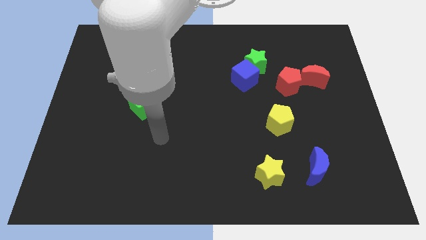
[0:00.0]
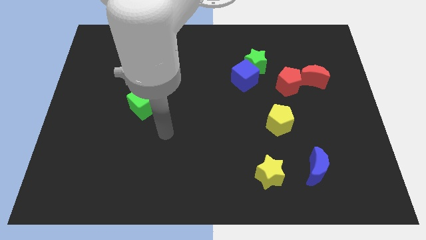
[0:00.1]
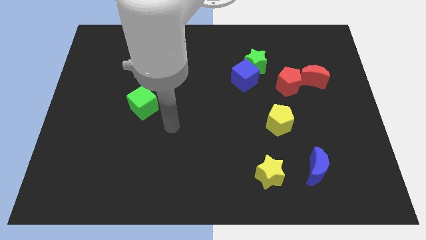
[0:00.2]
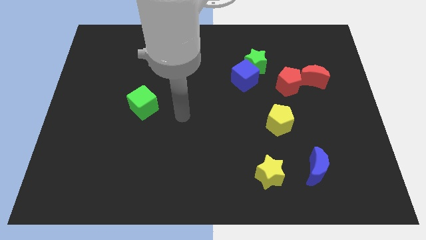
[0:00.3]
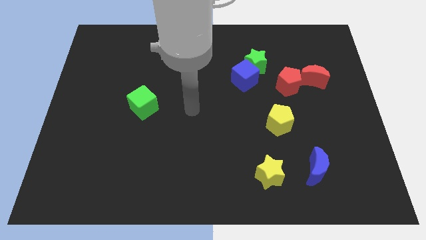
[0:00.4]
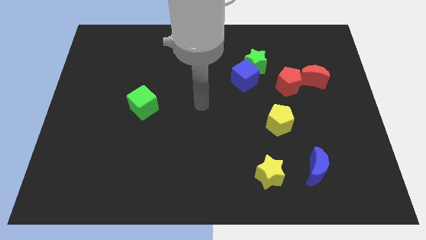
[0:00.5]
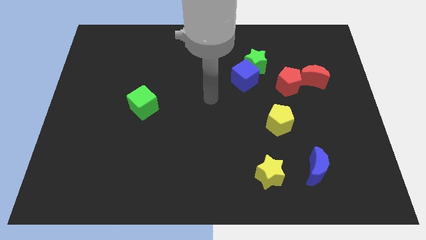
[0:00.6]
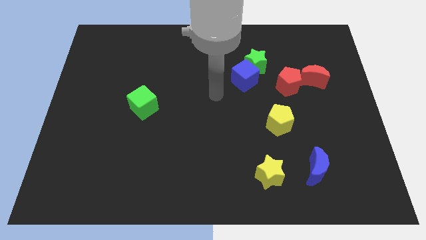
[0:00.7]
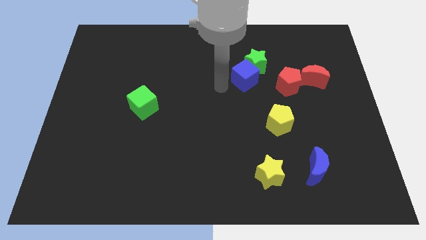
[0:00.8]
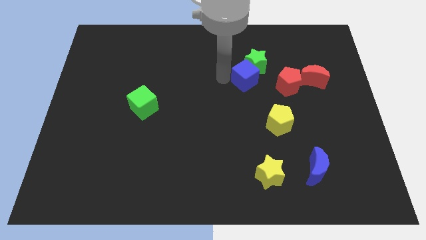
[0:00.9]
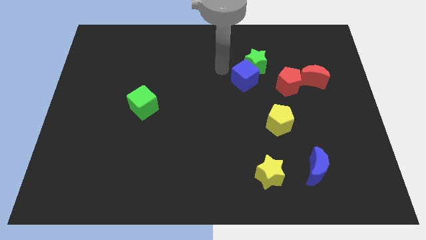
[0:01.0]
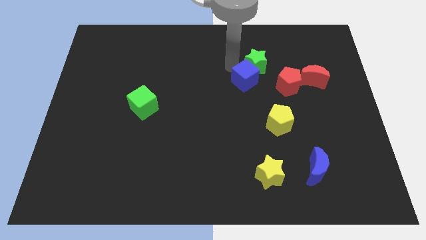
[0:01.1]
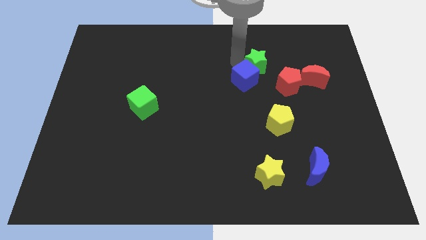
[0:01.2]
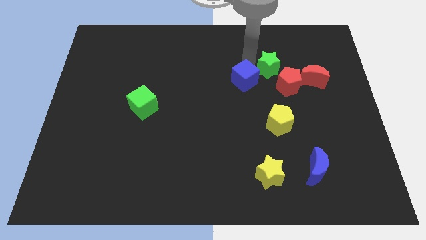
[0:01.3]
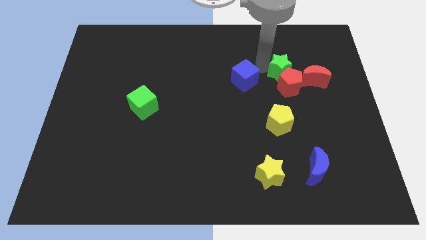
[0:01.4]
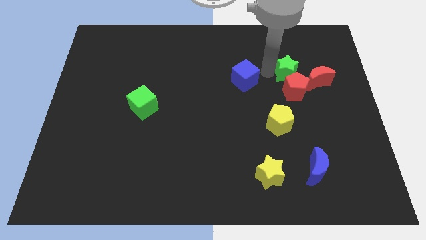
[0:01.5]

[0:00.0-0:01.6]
separate the blue cube from the green star

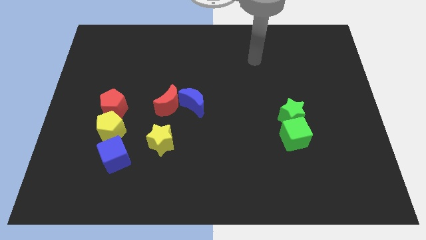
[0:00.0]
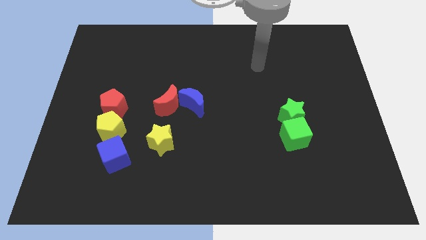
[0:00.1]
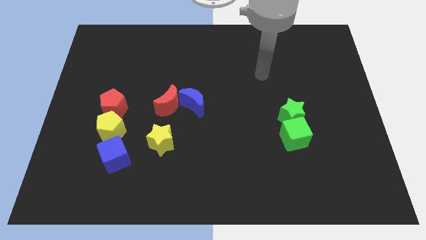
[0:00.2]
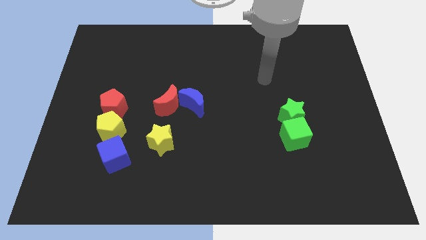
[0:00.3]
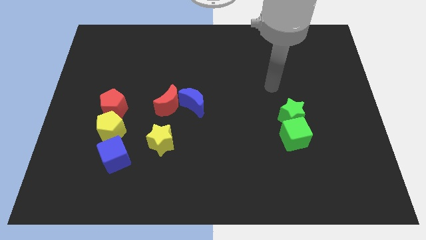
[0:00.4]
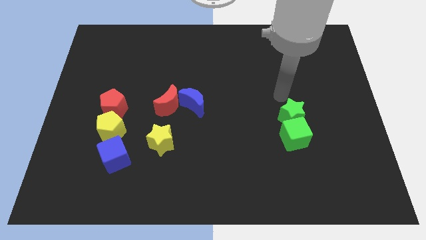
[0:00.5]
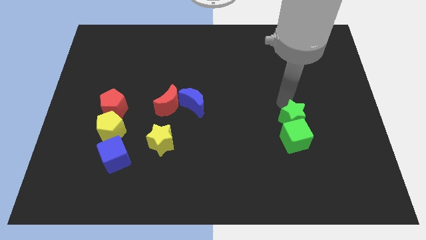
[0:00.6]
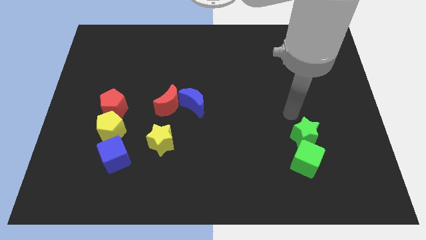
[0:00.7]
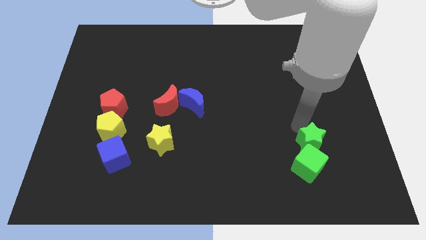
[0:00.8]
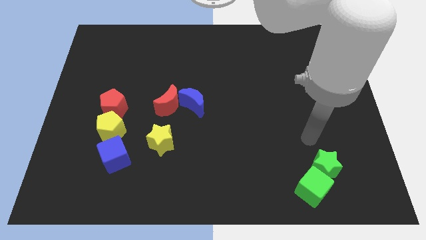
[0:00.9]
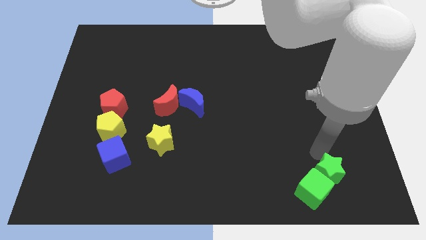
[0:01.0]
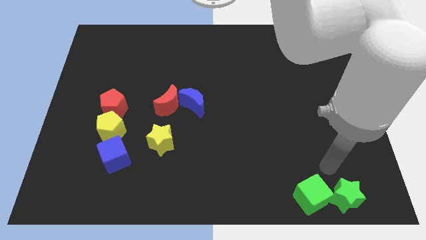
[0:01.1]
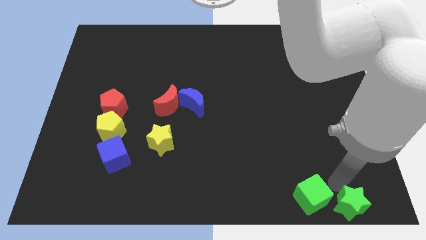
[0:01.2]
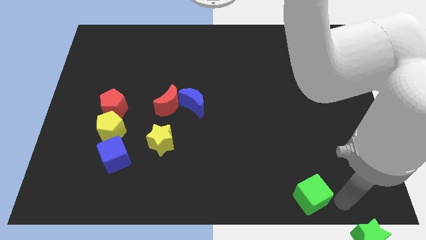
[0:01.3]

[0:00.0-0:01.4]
separate the green cube from the green star

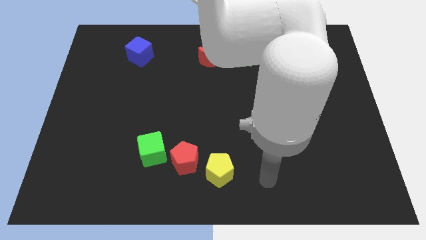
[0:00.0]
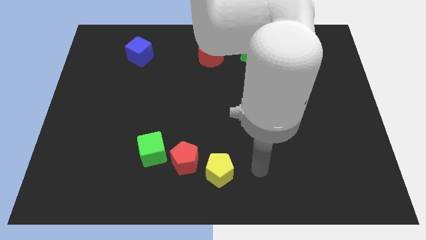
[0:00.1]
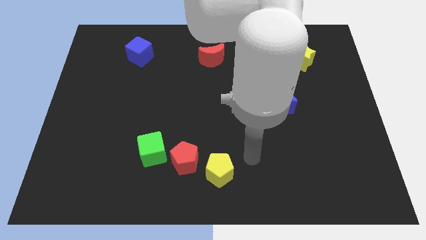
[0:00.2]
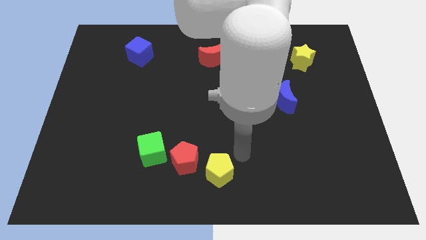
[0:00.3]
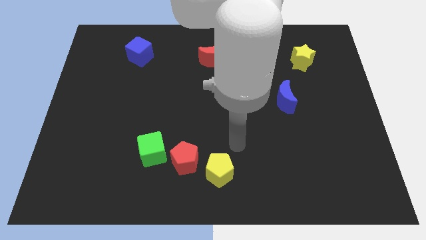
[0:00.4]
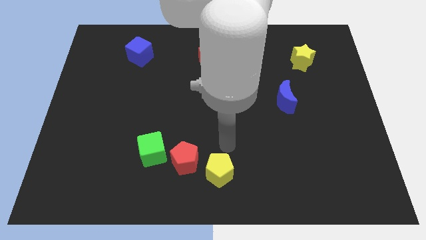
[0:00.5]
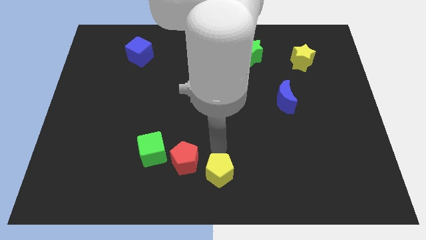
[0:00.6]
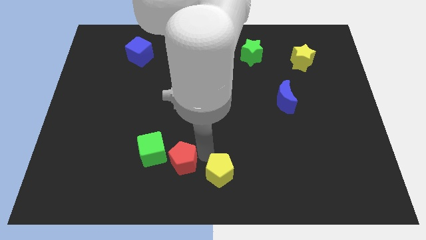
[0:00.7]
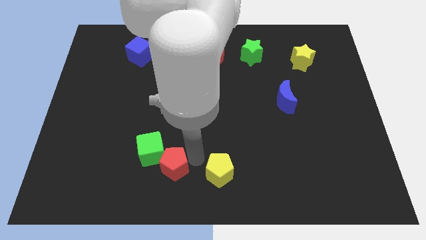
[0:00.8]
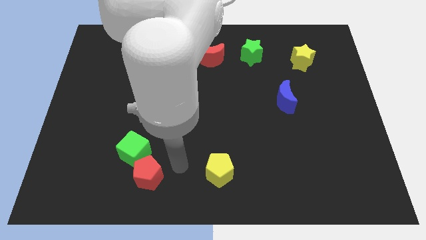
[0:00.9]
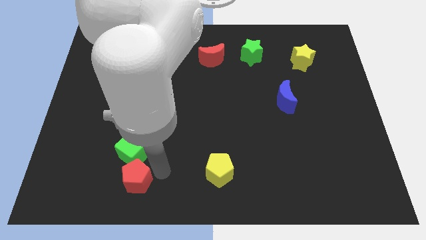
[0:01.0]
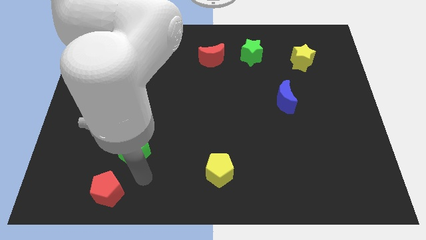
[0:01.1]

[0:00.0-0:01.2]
move the green cube away from the red pentagon

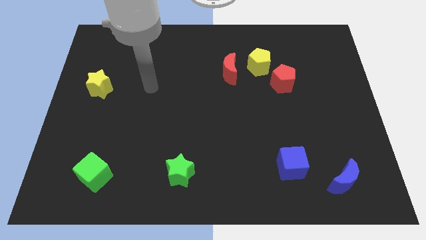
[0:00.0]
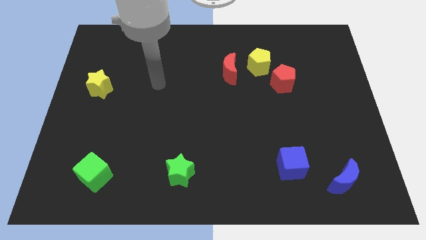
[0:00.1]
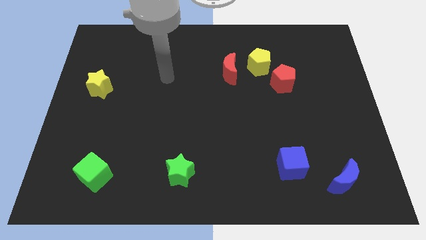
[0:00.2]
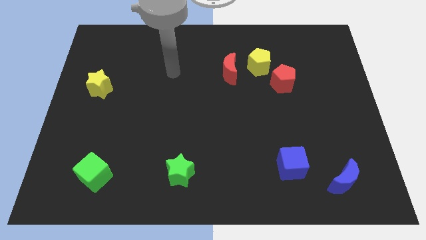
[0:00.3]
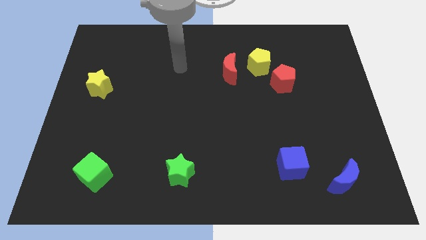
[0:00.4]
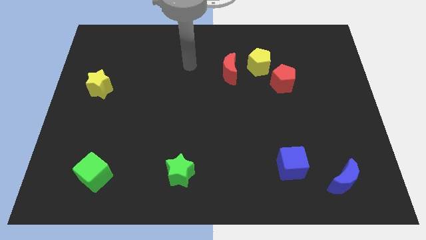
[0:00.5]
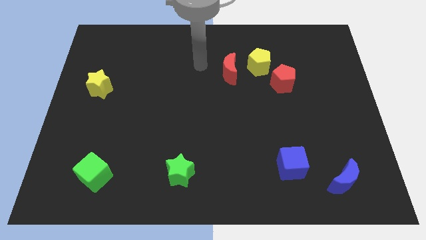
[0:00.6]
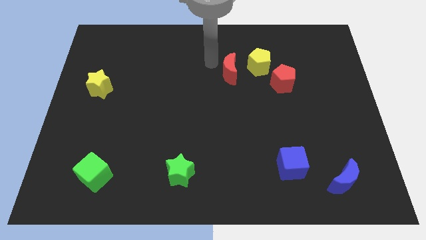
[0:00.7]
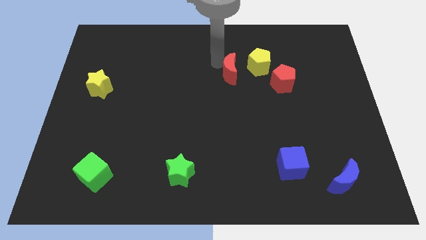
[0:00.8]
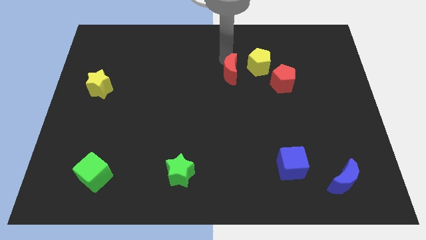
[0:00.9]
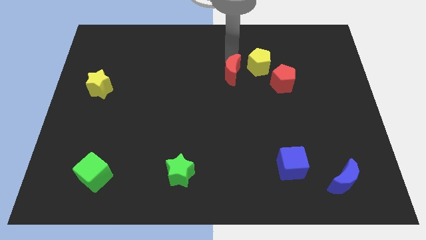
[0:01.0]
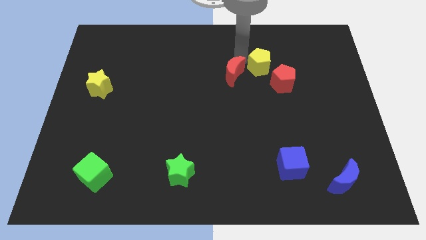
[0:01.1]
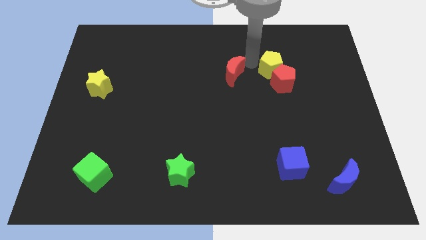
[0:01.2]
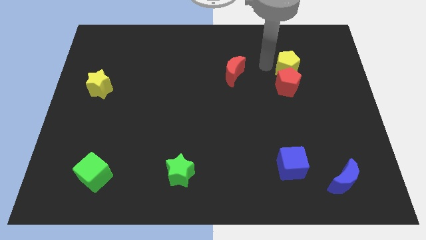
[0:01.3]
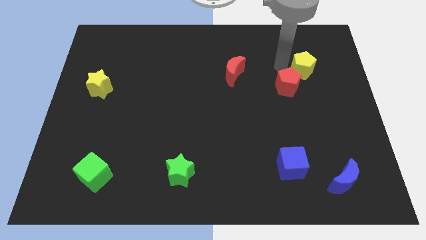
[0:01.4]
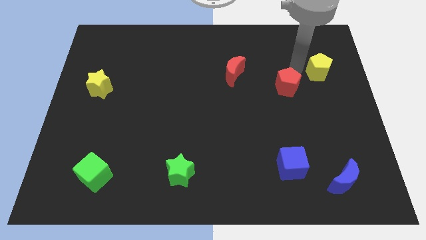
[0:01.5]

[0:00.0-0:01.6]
separate the red pentagon from the yellow pentagon

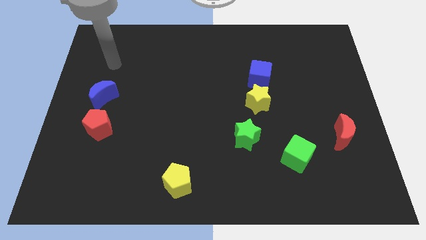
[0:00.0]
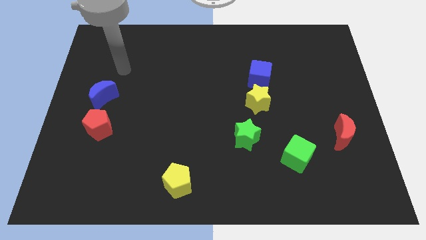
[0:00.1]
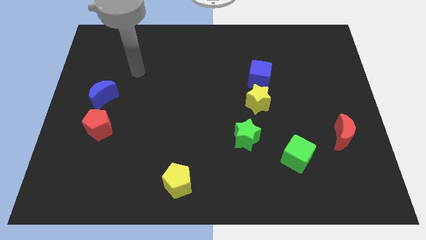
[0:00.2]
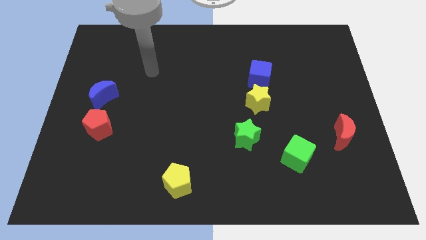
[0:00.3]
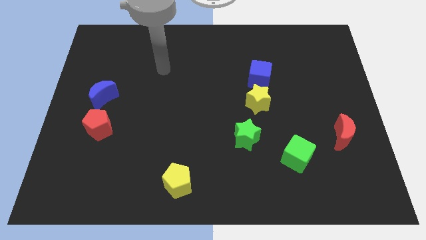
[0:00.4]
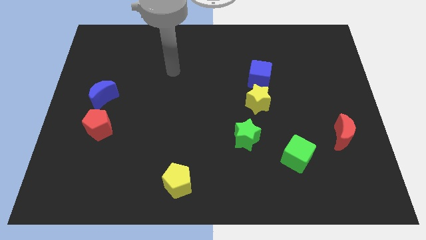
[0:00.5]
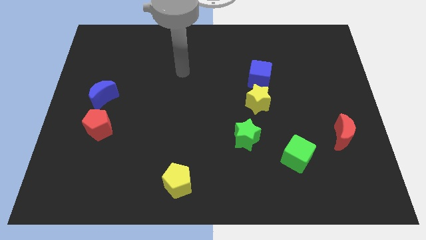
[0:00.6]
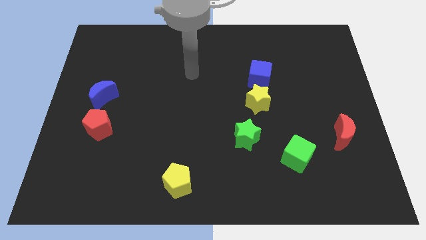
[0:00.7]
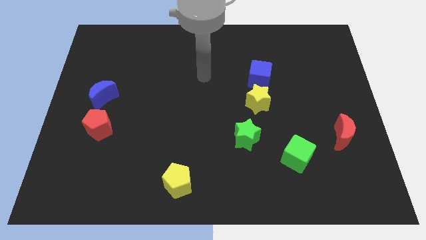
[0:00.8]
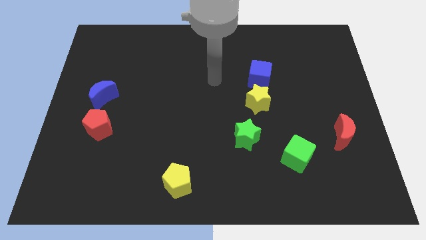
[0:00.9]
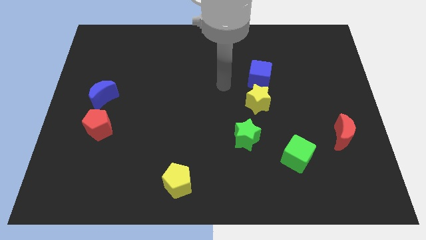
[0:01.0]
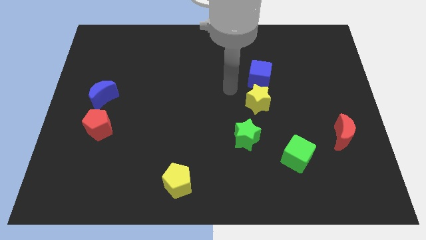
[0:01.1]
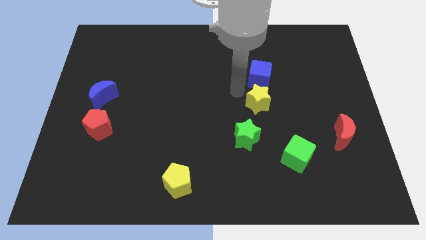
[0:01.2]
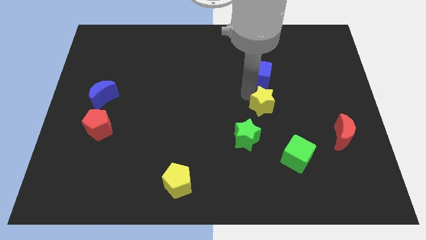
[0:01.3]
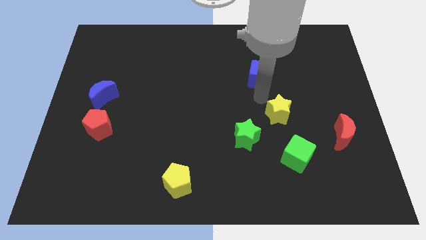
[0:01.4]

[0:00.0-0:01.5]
move the blue cube away from the yellow star

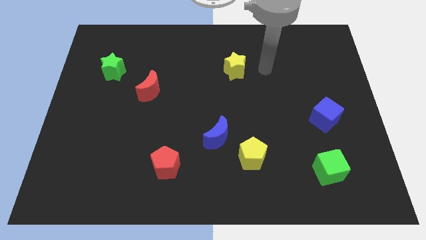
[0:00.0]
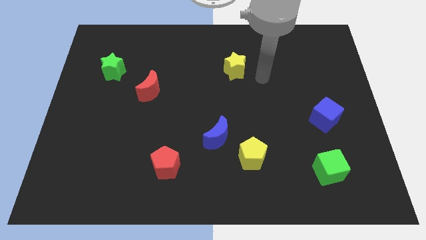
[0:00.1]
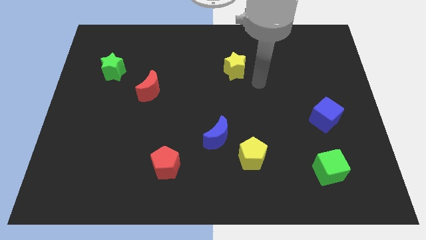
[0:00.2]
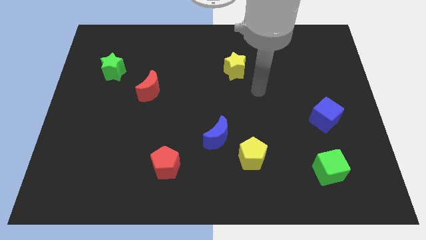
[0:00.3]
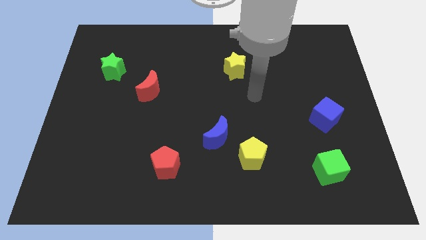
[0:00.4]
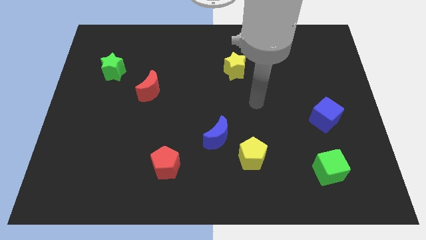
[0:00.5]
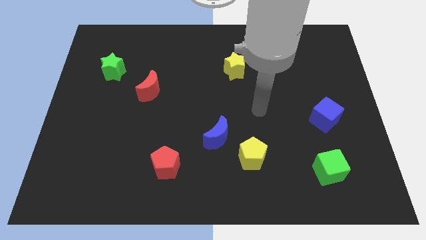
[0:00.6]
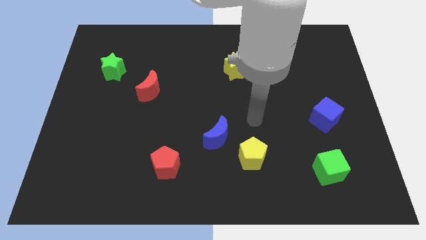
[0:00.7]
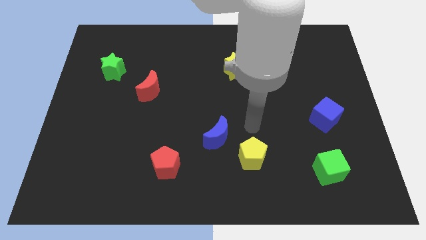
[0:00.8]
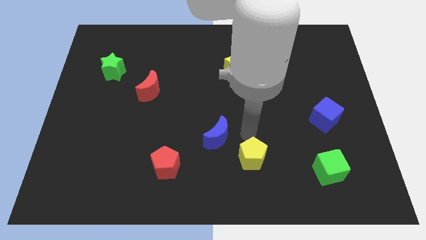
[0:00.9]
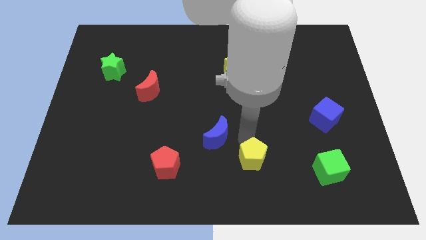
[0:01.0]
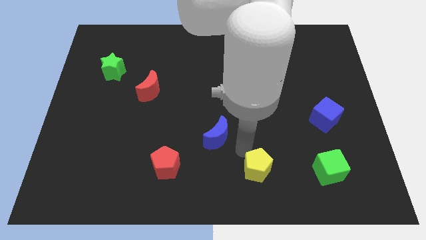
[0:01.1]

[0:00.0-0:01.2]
pull the blue moon apart from the yellow pentagon

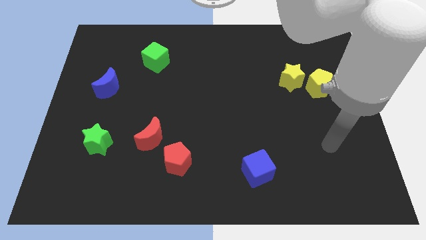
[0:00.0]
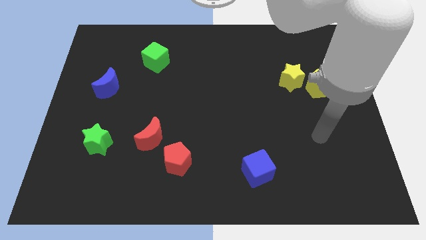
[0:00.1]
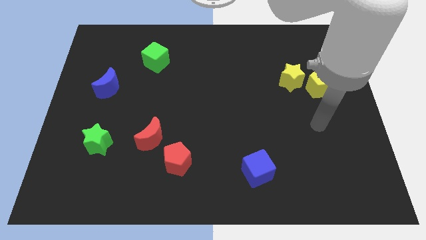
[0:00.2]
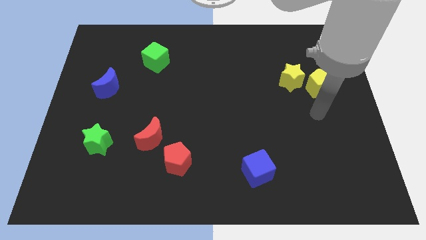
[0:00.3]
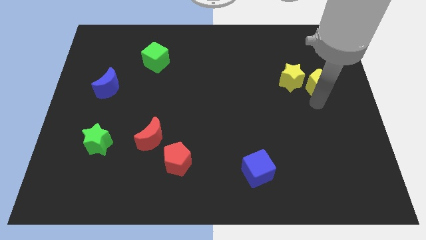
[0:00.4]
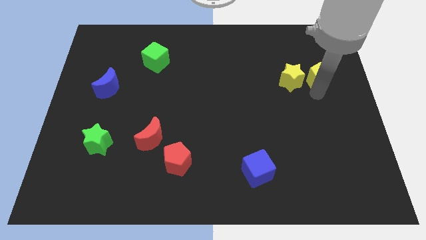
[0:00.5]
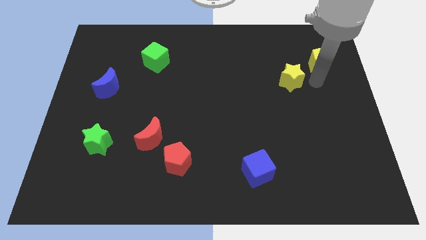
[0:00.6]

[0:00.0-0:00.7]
separate the yellow star from the yellow pentagon
